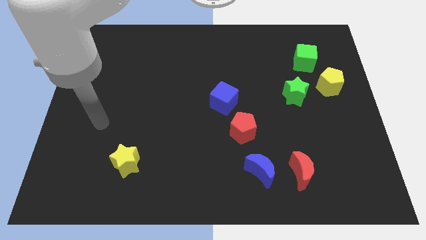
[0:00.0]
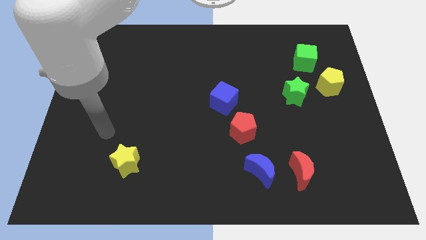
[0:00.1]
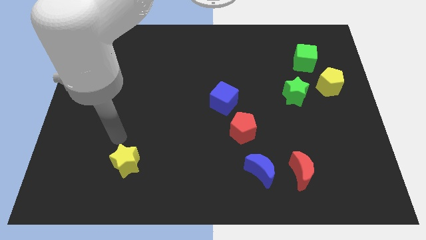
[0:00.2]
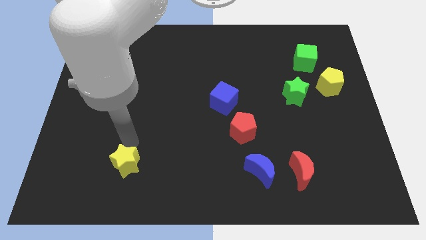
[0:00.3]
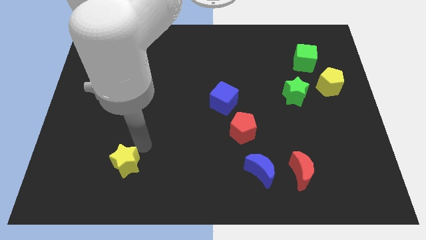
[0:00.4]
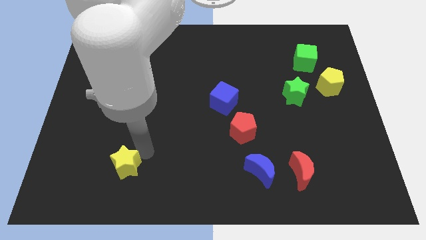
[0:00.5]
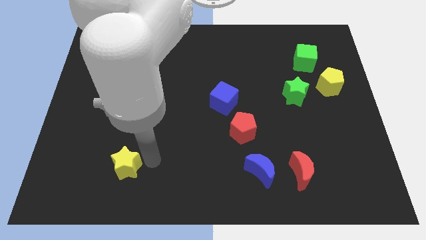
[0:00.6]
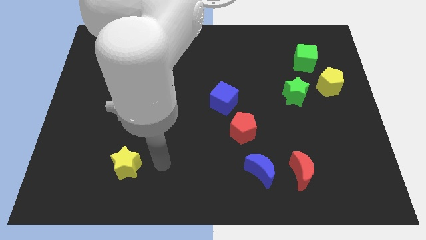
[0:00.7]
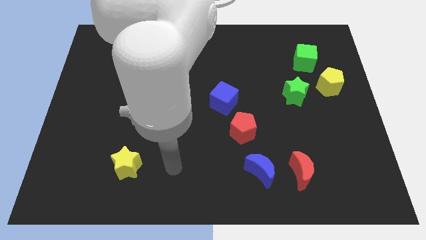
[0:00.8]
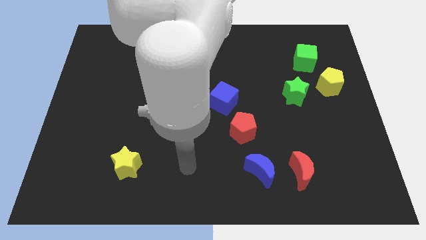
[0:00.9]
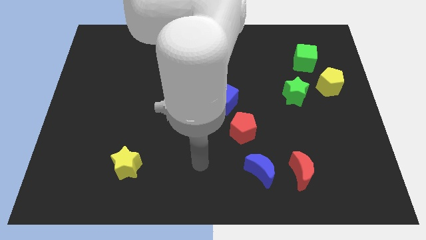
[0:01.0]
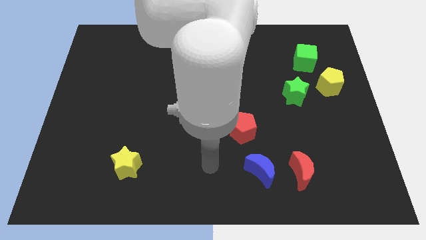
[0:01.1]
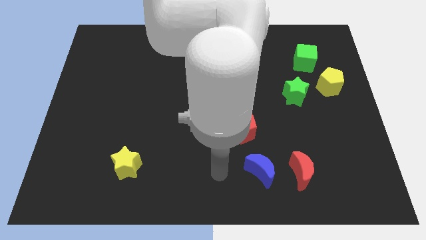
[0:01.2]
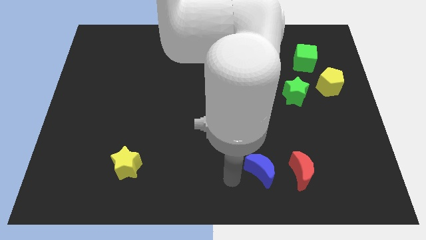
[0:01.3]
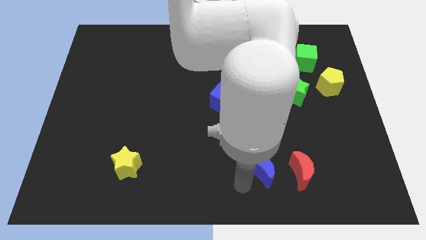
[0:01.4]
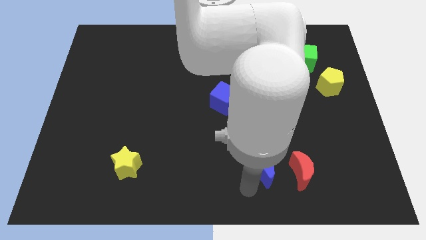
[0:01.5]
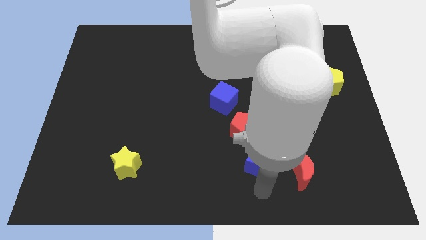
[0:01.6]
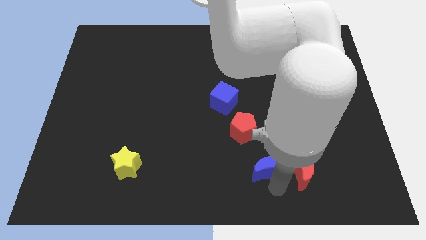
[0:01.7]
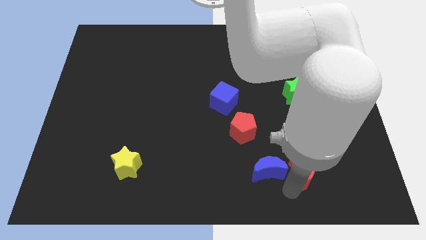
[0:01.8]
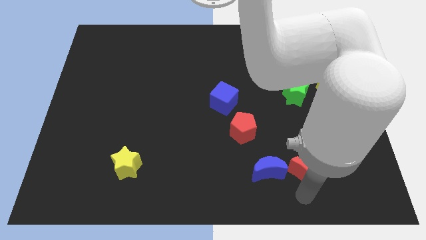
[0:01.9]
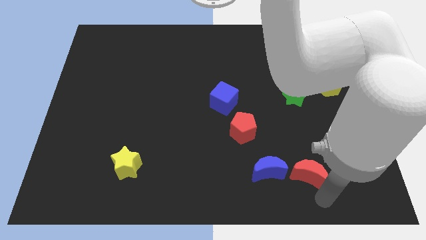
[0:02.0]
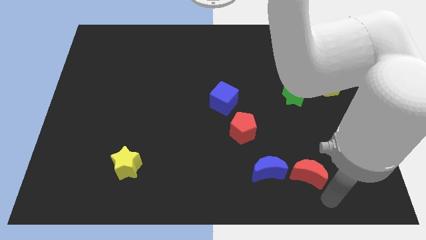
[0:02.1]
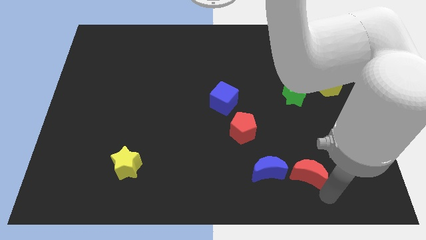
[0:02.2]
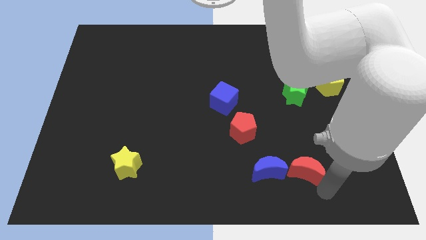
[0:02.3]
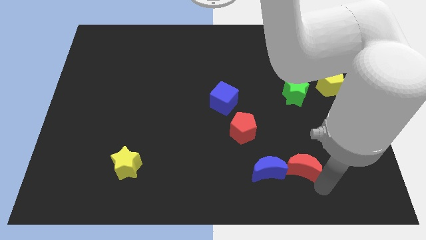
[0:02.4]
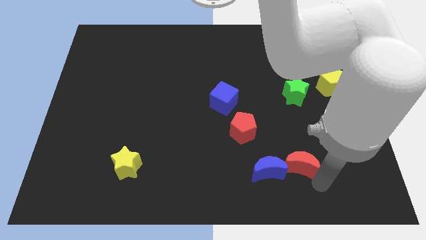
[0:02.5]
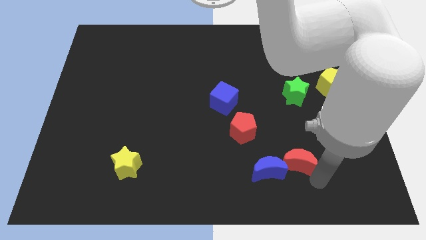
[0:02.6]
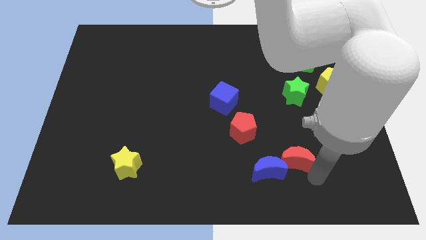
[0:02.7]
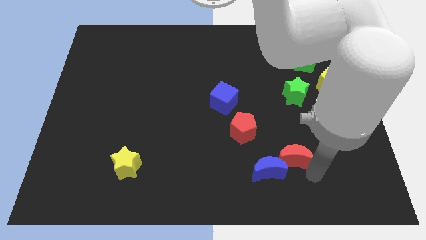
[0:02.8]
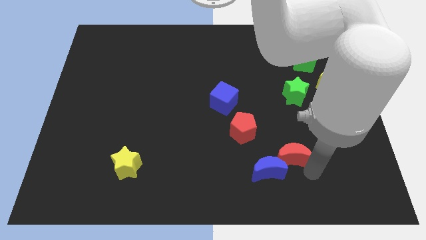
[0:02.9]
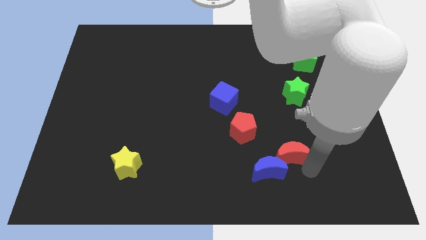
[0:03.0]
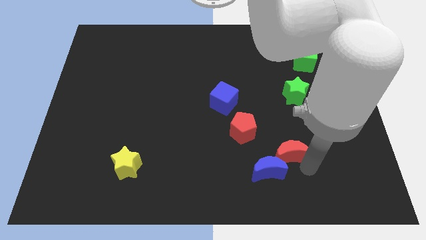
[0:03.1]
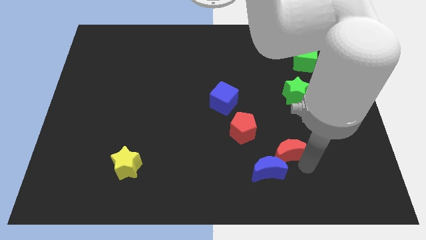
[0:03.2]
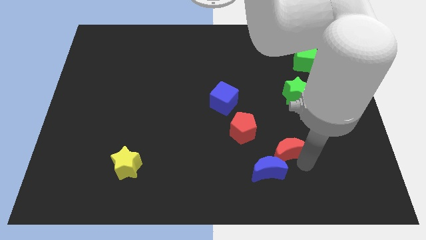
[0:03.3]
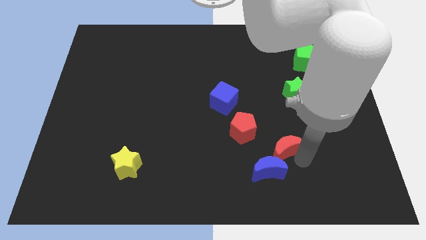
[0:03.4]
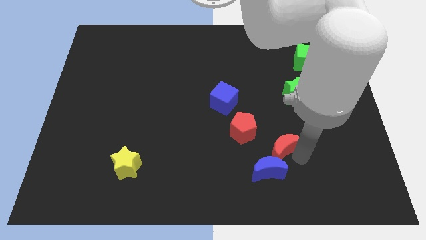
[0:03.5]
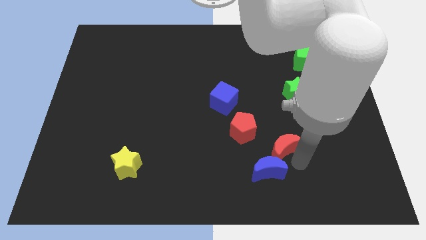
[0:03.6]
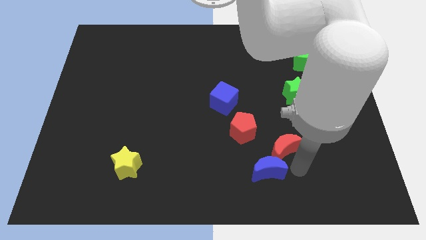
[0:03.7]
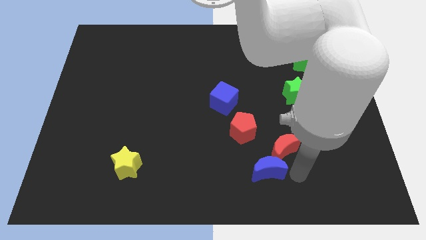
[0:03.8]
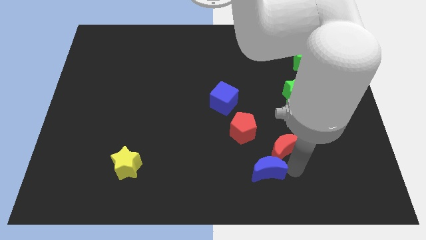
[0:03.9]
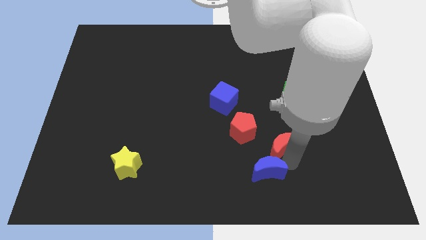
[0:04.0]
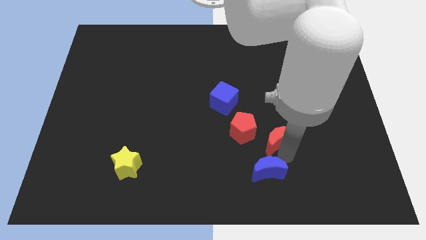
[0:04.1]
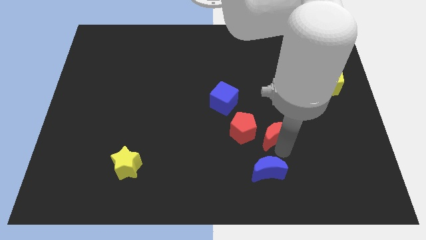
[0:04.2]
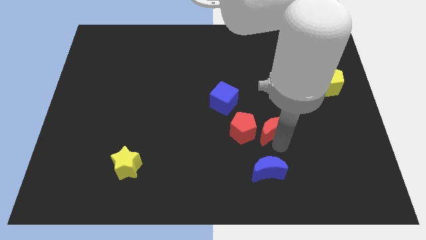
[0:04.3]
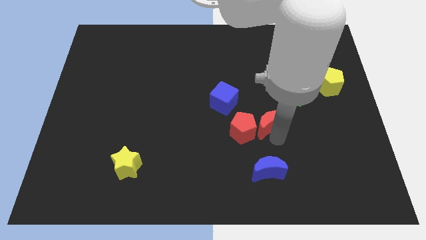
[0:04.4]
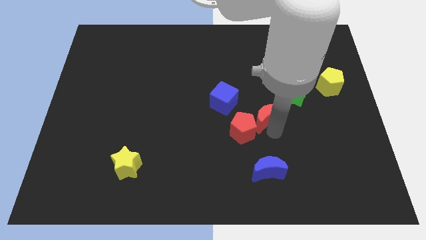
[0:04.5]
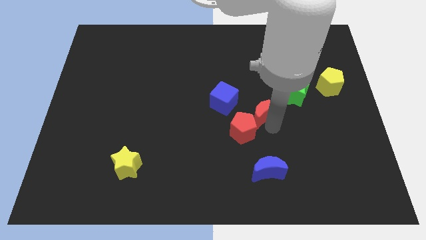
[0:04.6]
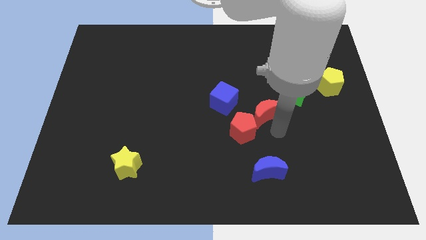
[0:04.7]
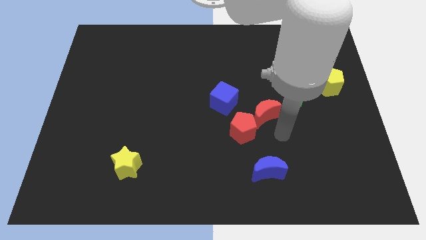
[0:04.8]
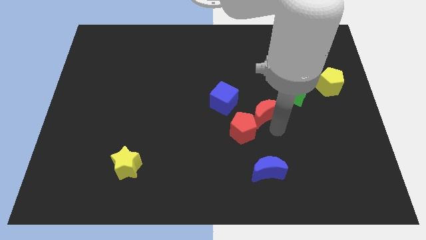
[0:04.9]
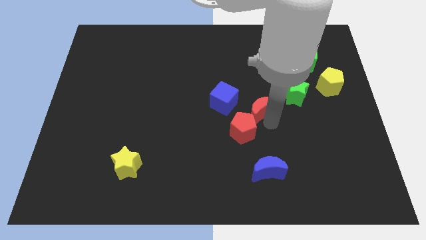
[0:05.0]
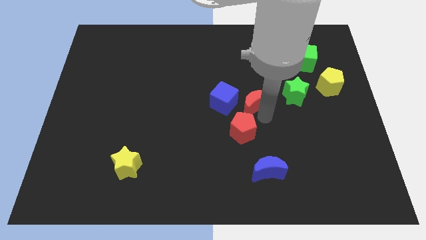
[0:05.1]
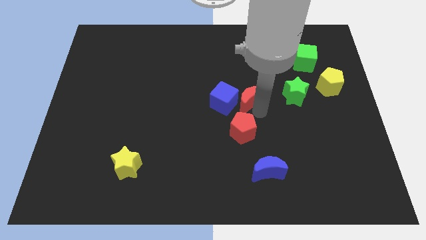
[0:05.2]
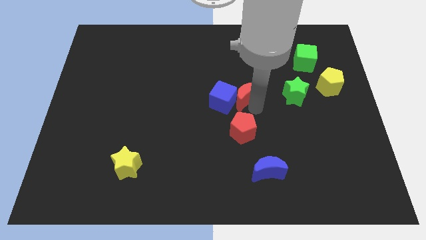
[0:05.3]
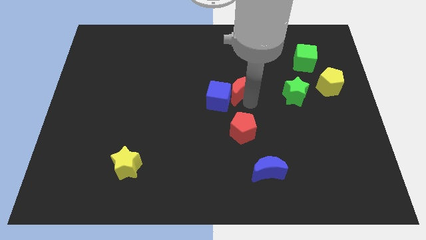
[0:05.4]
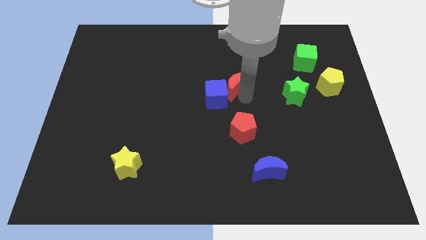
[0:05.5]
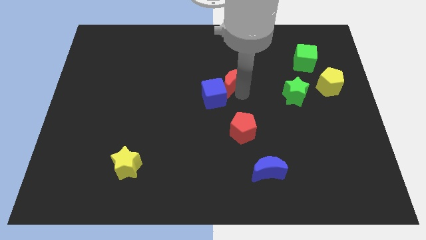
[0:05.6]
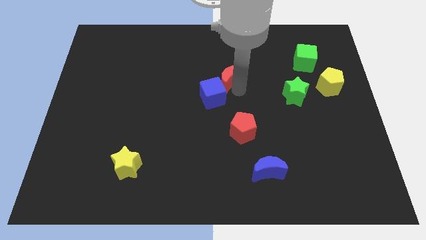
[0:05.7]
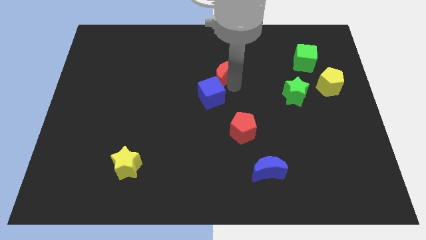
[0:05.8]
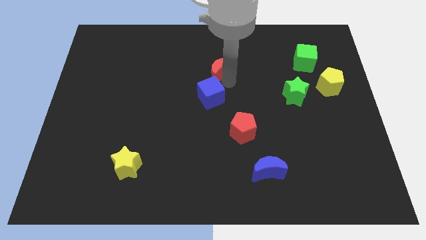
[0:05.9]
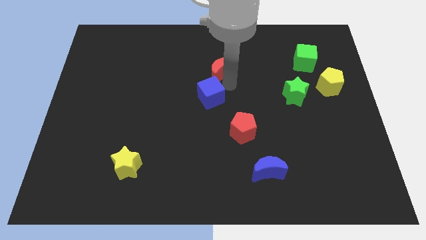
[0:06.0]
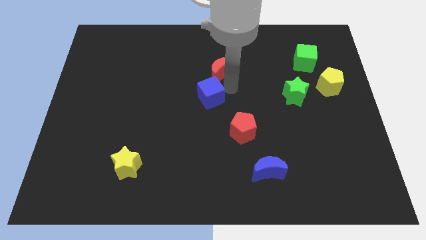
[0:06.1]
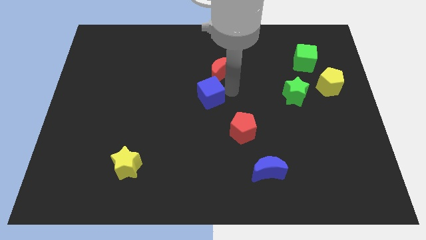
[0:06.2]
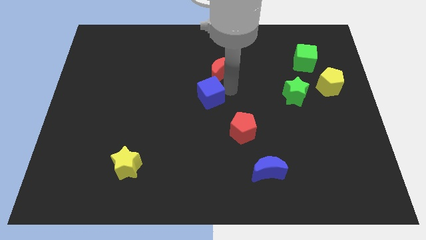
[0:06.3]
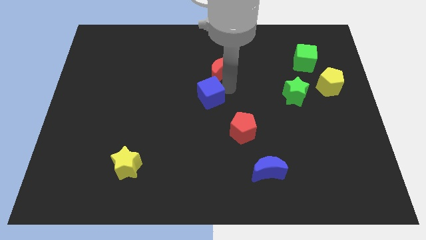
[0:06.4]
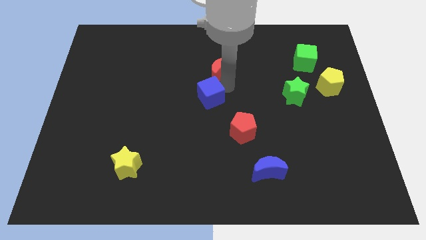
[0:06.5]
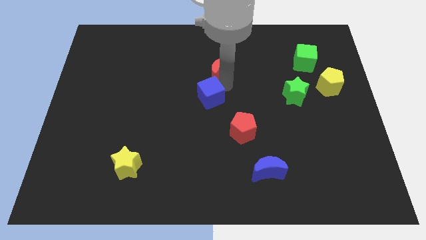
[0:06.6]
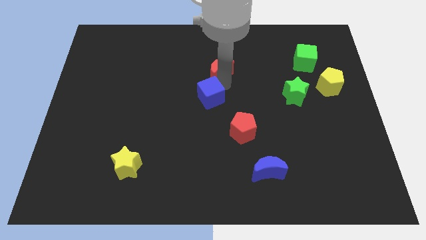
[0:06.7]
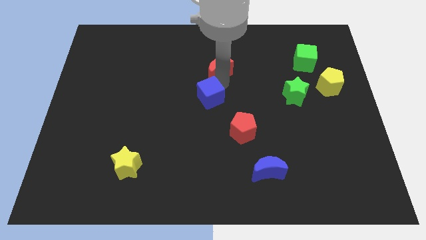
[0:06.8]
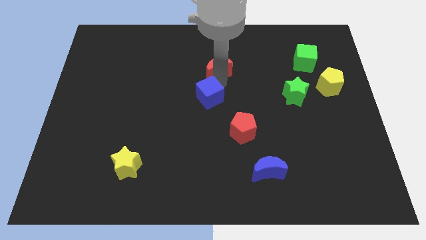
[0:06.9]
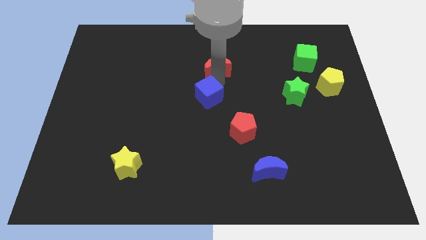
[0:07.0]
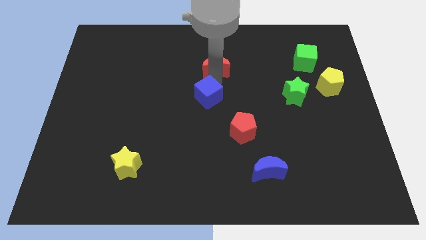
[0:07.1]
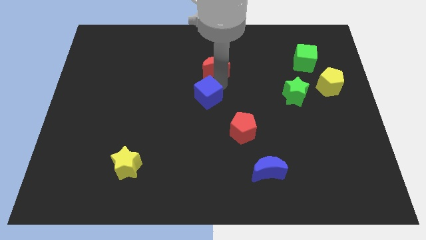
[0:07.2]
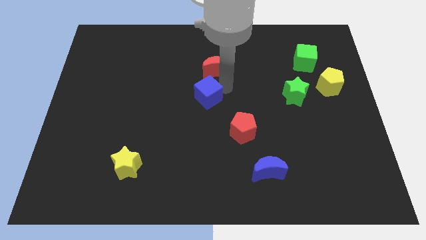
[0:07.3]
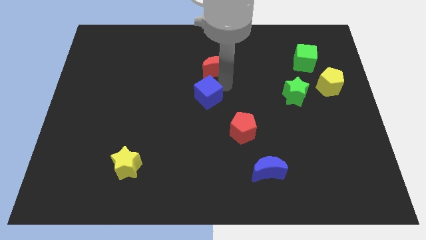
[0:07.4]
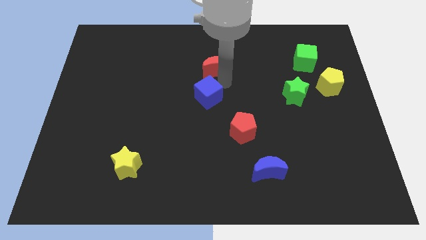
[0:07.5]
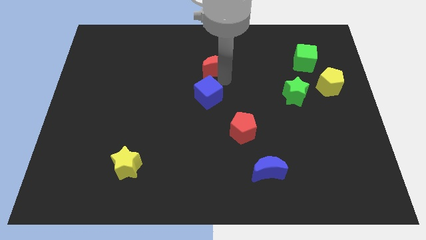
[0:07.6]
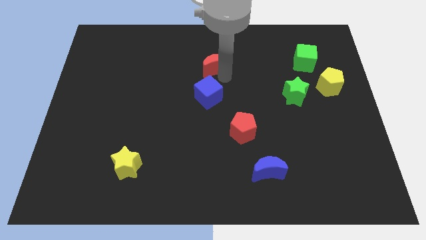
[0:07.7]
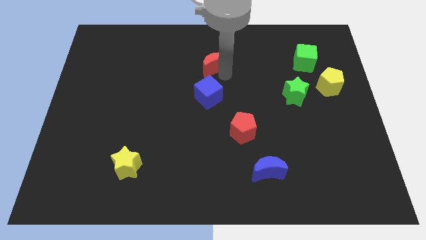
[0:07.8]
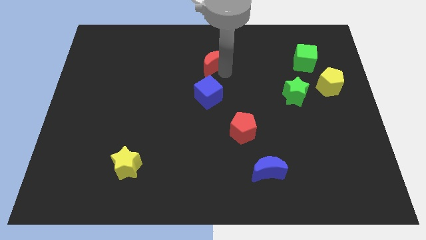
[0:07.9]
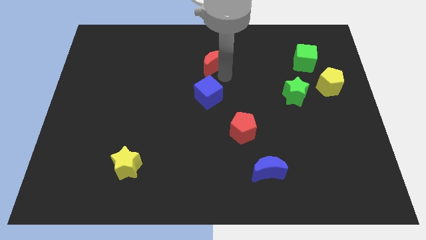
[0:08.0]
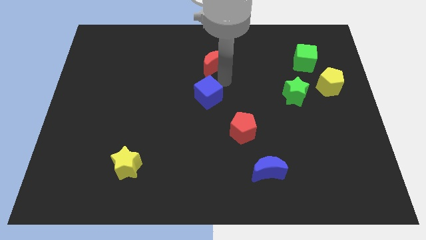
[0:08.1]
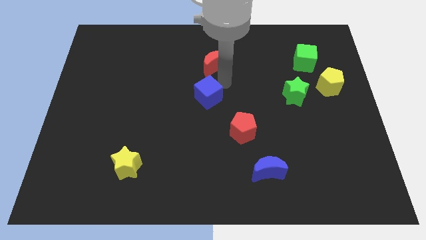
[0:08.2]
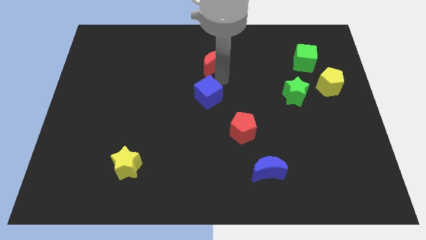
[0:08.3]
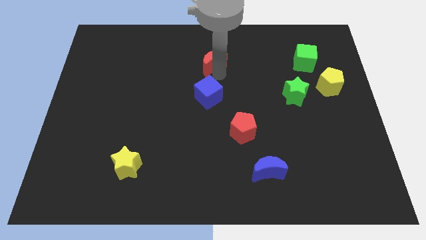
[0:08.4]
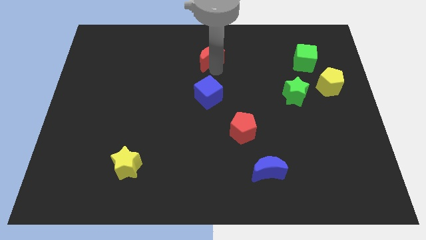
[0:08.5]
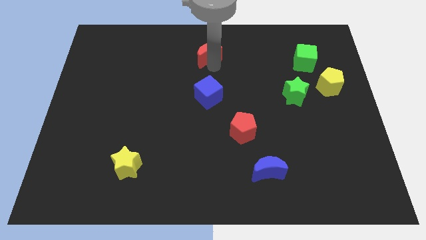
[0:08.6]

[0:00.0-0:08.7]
put the red moon to the top side
